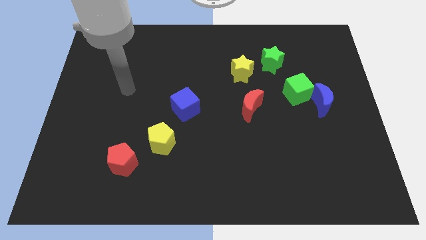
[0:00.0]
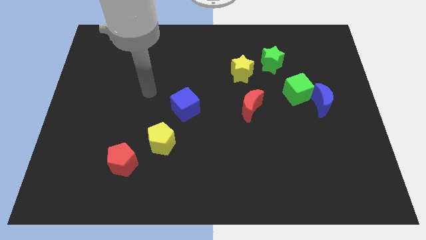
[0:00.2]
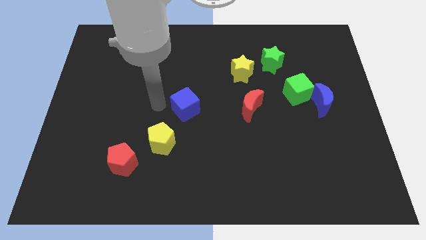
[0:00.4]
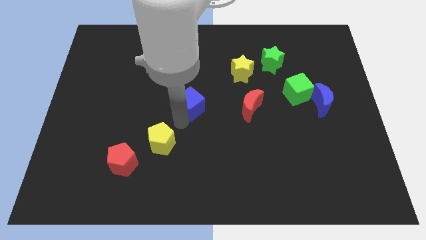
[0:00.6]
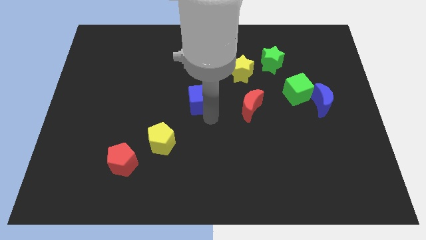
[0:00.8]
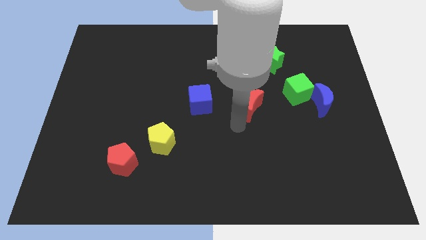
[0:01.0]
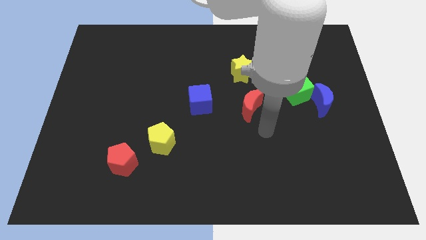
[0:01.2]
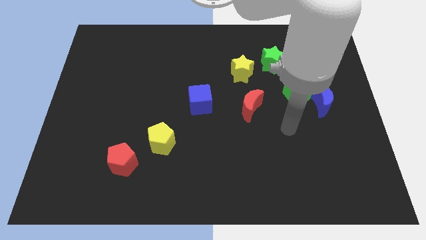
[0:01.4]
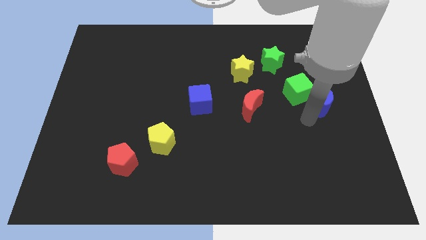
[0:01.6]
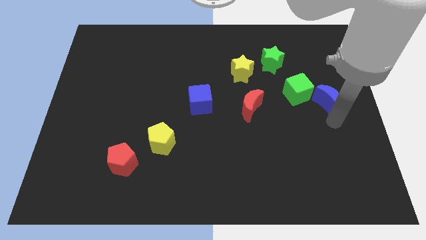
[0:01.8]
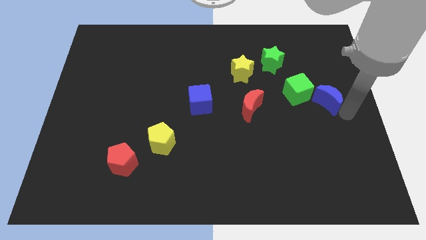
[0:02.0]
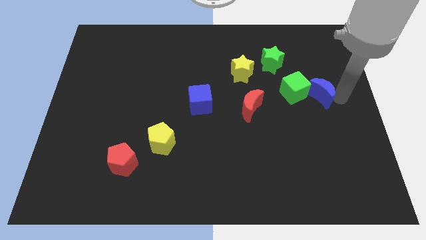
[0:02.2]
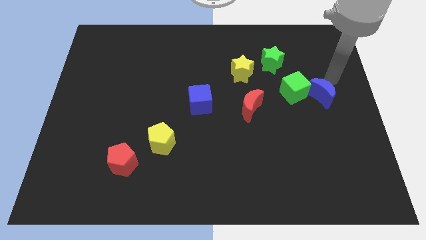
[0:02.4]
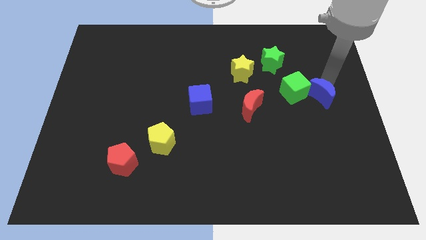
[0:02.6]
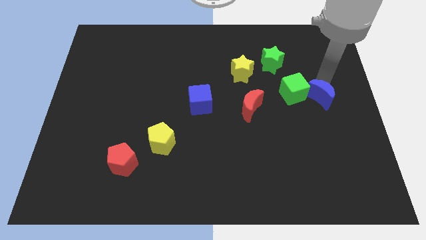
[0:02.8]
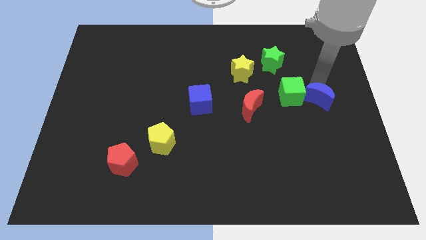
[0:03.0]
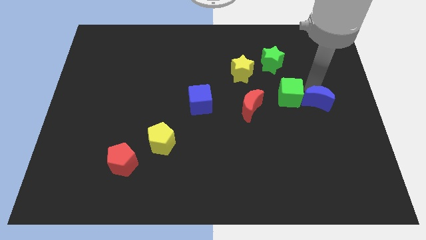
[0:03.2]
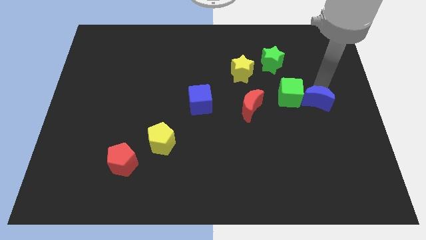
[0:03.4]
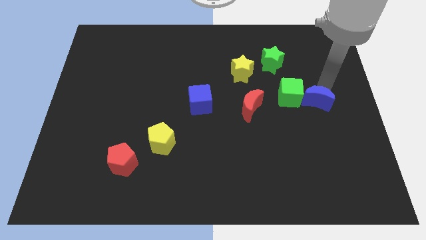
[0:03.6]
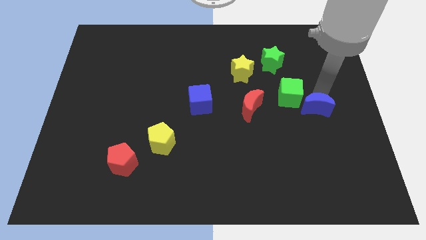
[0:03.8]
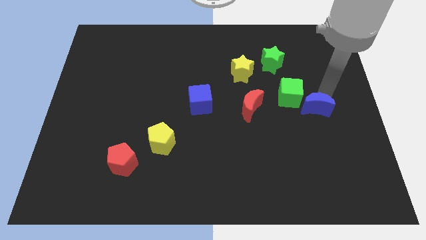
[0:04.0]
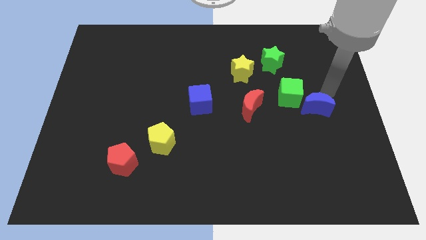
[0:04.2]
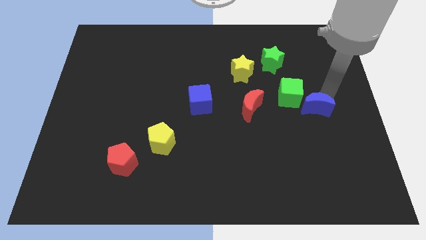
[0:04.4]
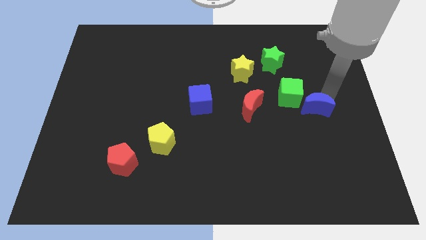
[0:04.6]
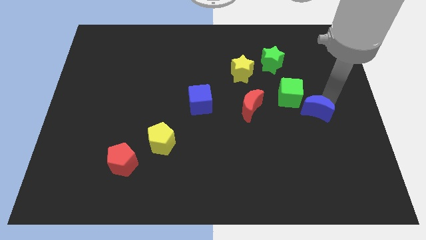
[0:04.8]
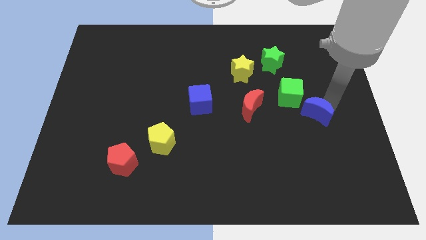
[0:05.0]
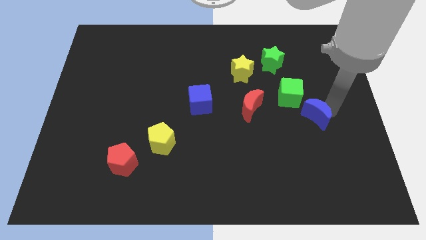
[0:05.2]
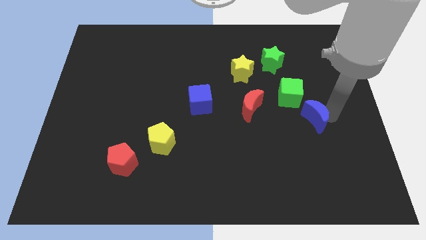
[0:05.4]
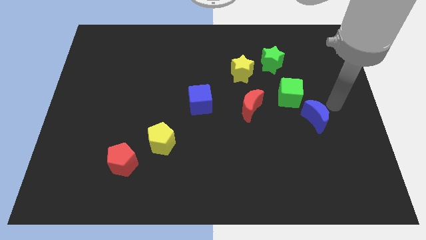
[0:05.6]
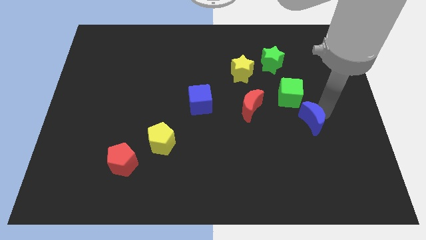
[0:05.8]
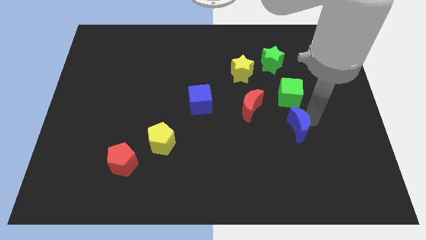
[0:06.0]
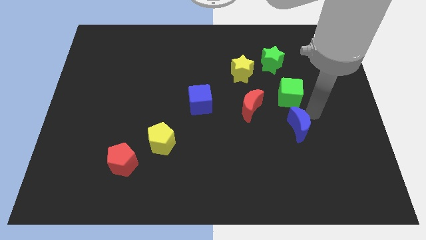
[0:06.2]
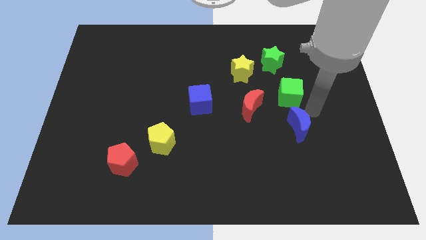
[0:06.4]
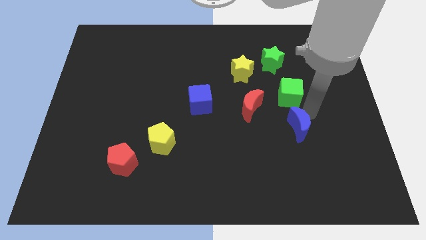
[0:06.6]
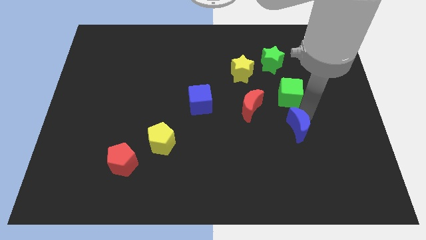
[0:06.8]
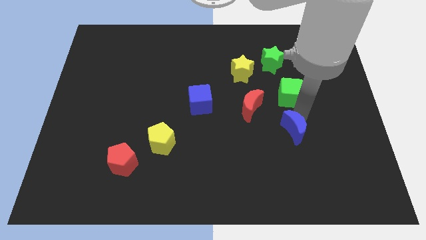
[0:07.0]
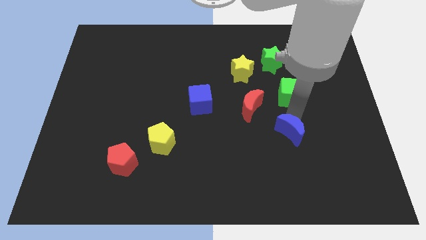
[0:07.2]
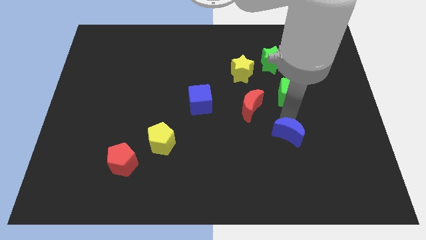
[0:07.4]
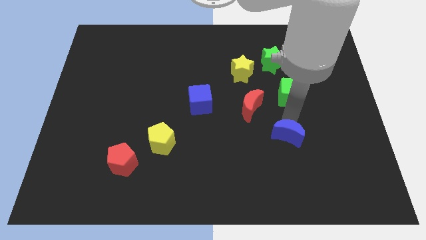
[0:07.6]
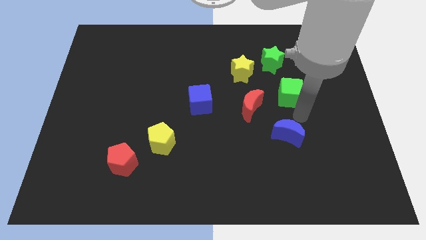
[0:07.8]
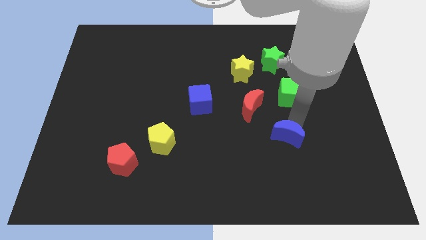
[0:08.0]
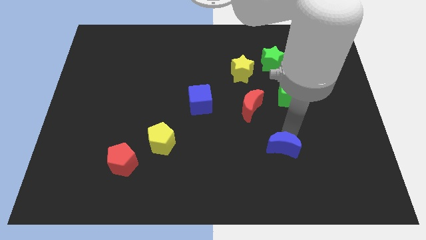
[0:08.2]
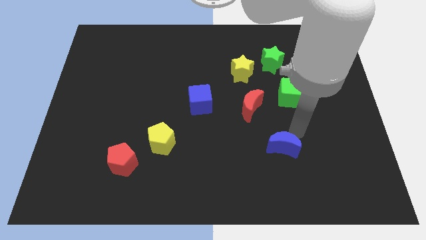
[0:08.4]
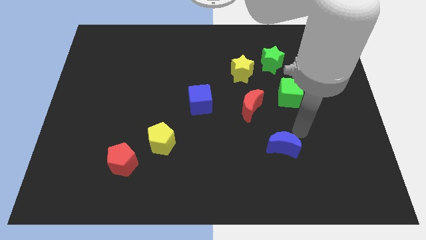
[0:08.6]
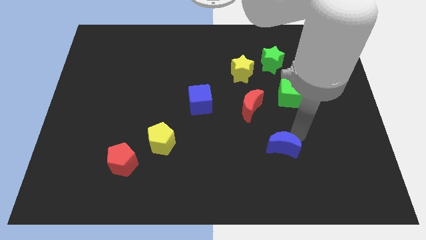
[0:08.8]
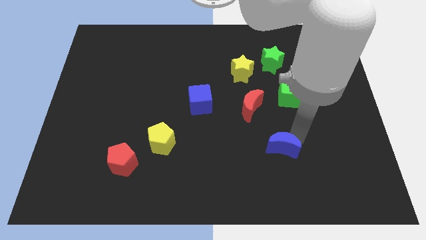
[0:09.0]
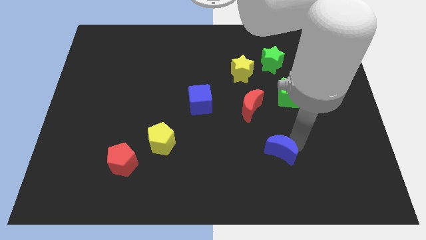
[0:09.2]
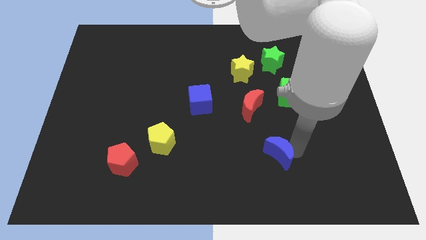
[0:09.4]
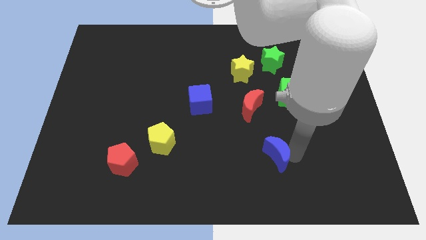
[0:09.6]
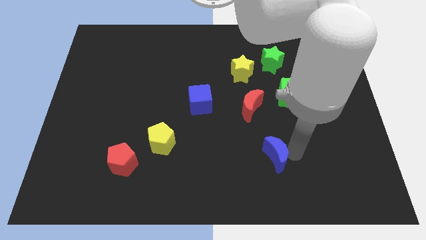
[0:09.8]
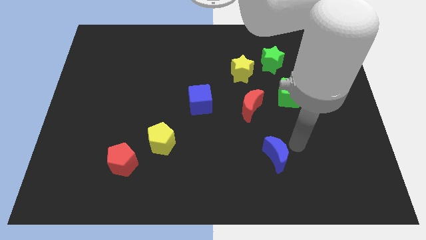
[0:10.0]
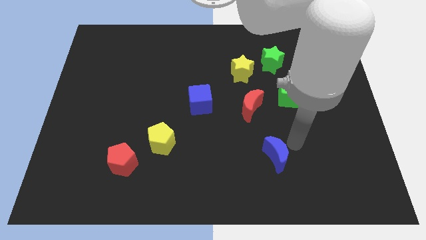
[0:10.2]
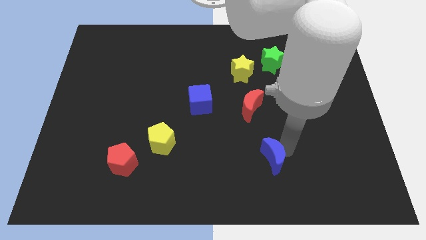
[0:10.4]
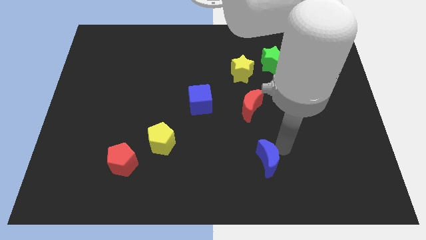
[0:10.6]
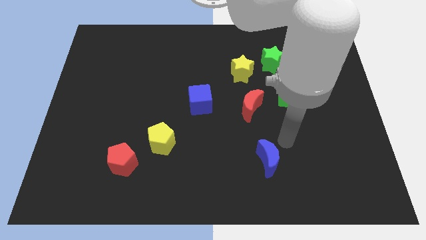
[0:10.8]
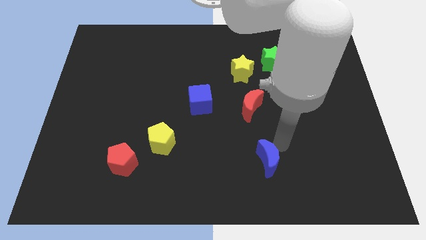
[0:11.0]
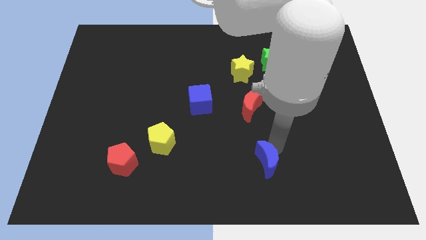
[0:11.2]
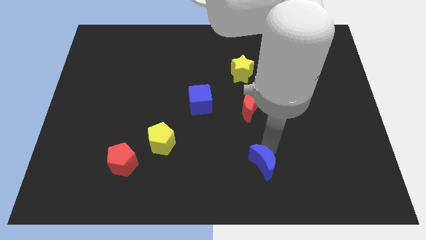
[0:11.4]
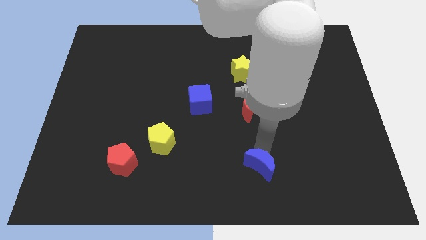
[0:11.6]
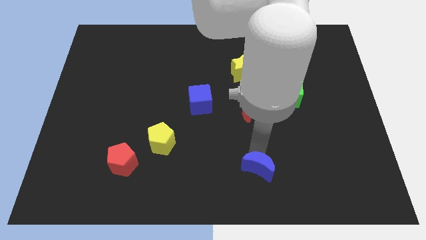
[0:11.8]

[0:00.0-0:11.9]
move the blue moon to the bottom

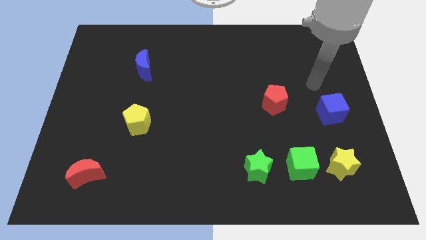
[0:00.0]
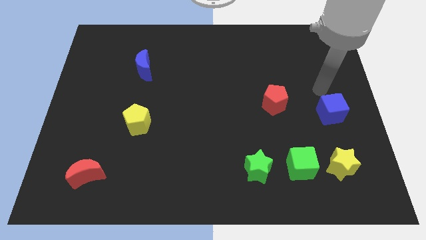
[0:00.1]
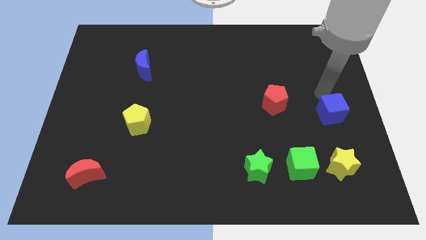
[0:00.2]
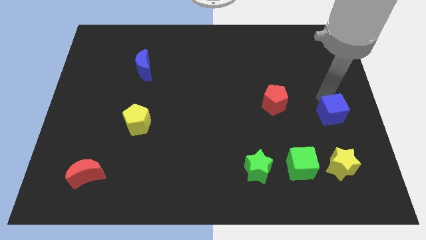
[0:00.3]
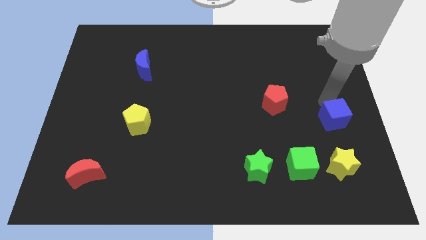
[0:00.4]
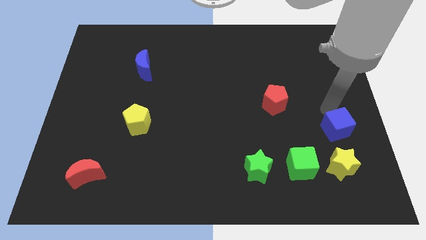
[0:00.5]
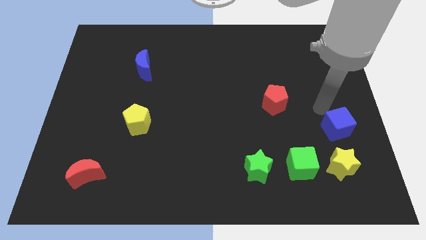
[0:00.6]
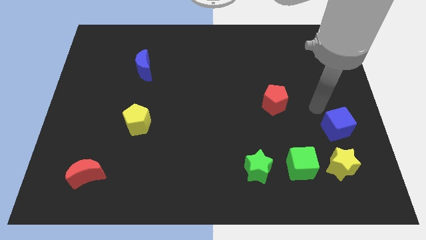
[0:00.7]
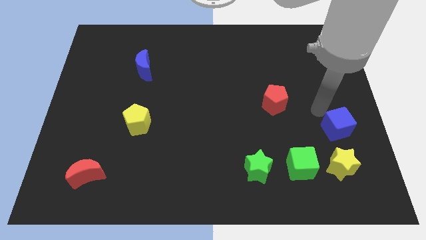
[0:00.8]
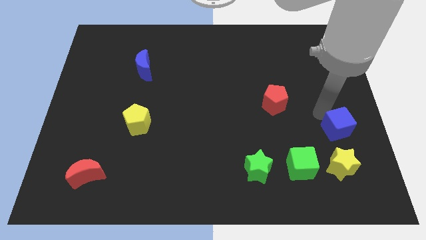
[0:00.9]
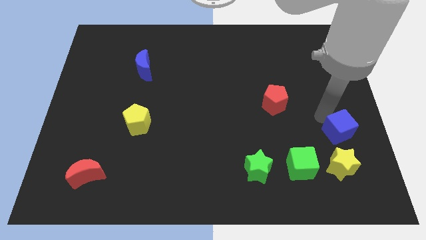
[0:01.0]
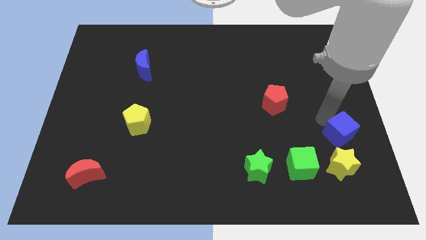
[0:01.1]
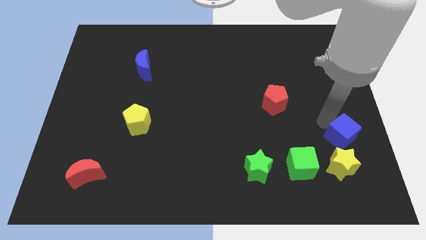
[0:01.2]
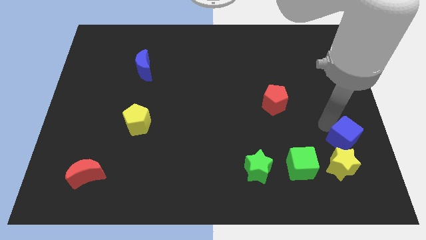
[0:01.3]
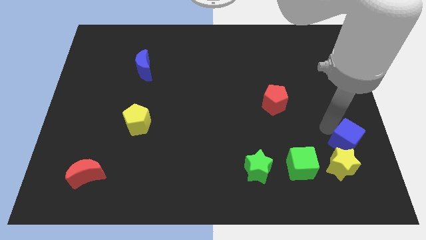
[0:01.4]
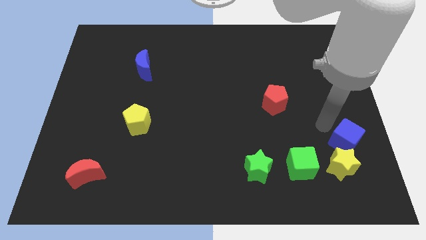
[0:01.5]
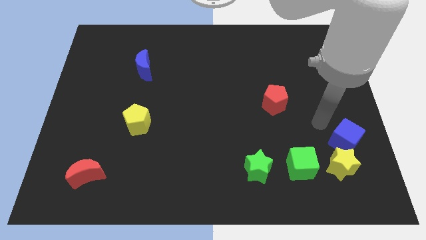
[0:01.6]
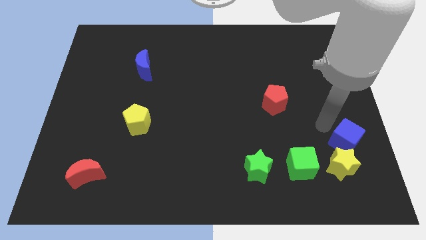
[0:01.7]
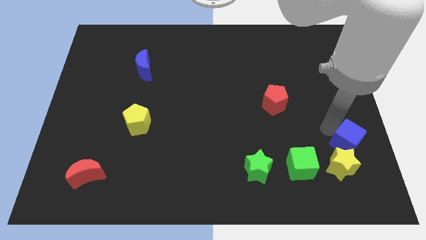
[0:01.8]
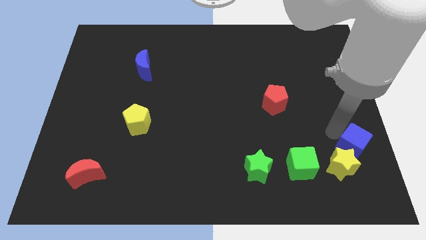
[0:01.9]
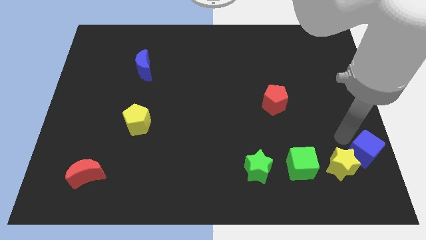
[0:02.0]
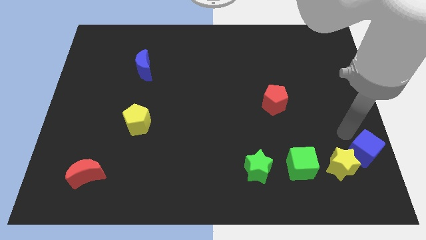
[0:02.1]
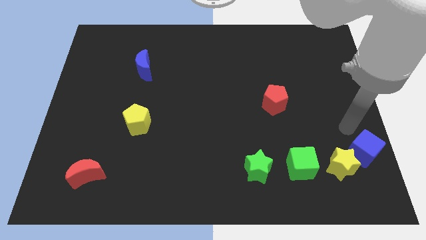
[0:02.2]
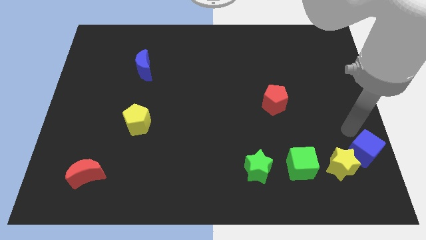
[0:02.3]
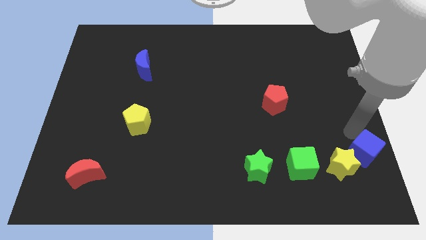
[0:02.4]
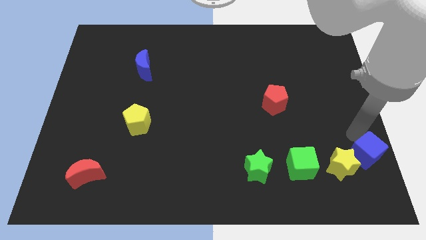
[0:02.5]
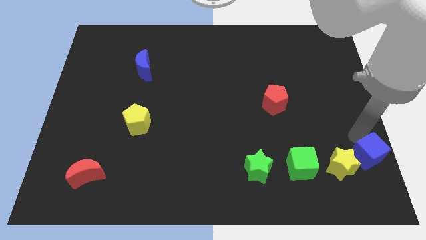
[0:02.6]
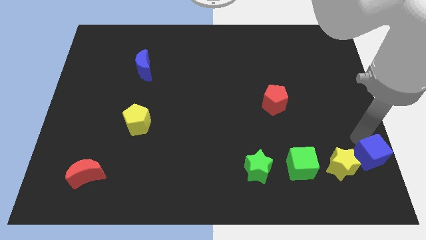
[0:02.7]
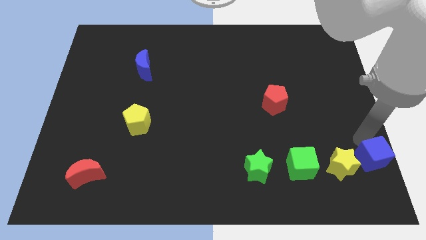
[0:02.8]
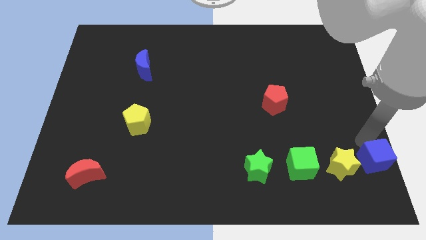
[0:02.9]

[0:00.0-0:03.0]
move the blue cube to the bottom right of the board
